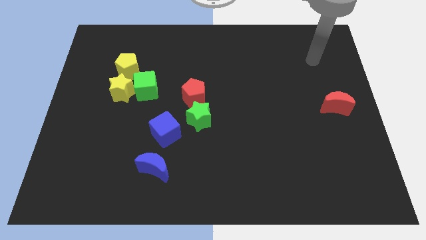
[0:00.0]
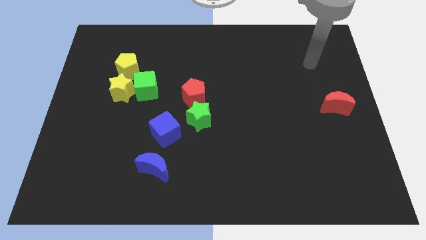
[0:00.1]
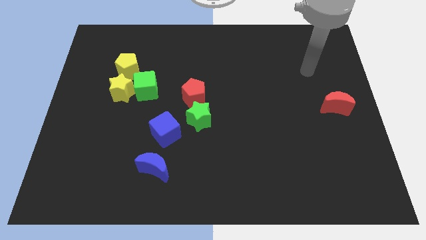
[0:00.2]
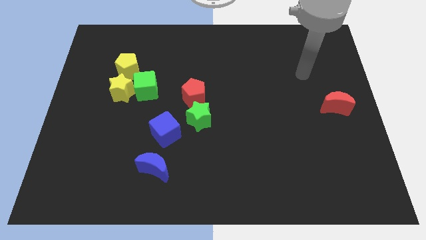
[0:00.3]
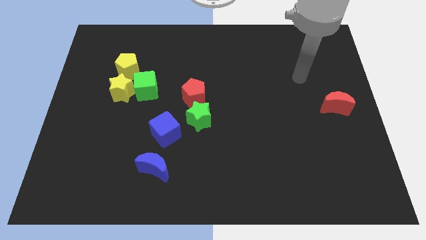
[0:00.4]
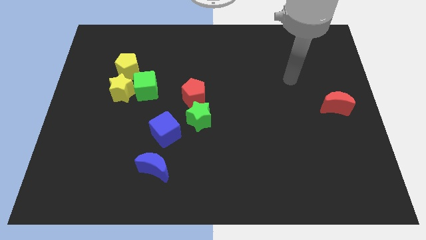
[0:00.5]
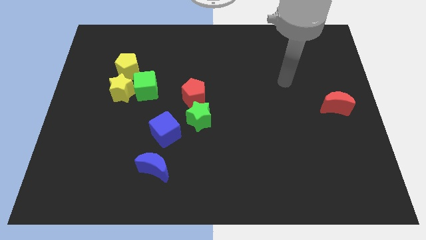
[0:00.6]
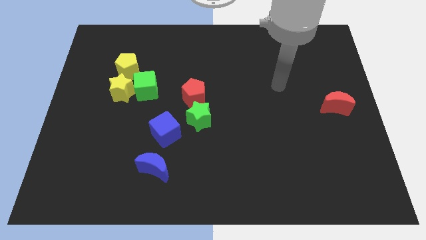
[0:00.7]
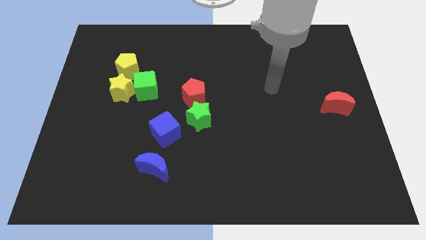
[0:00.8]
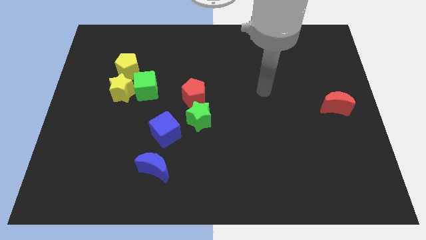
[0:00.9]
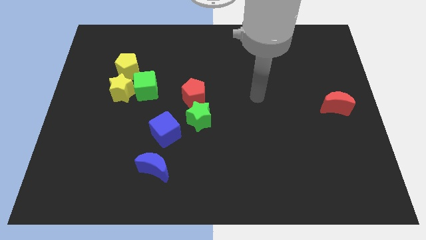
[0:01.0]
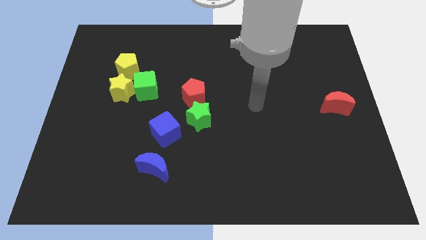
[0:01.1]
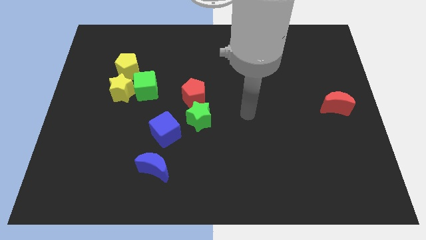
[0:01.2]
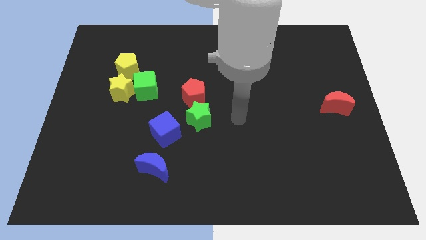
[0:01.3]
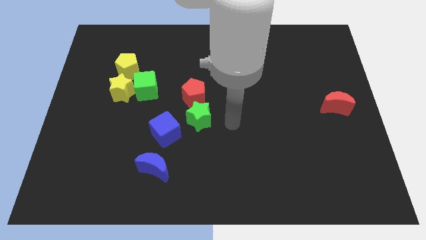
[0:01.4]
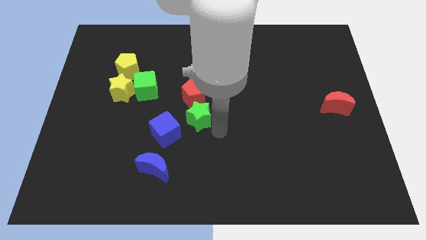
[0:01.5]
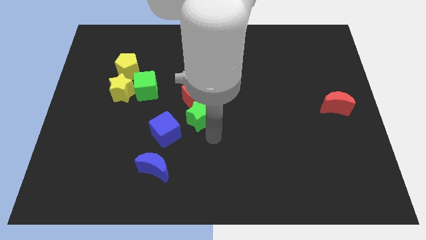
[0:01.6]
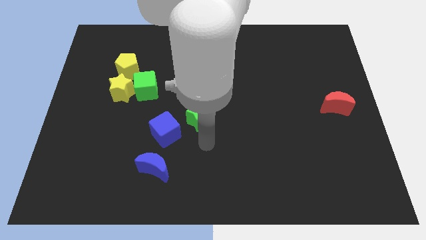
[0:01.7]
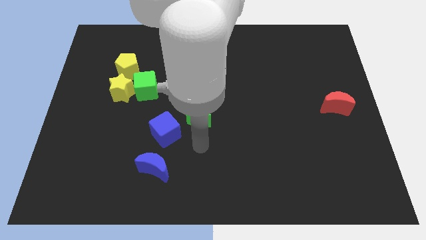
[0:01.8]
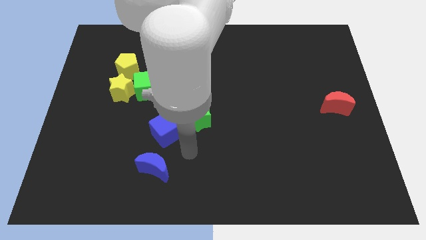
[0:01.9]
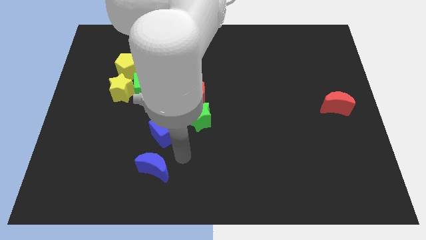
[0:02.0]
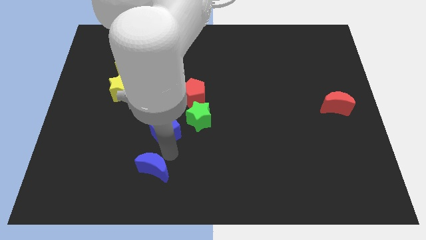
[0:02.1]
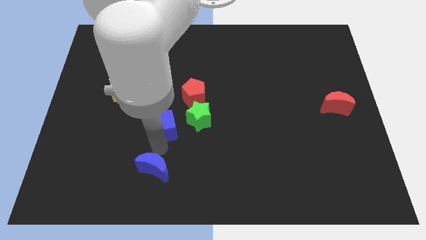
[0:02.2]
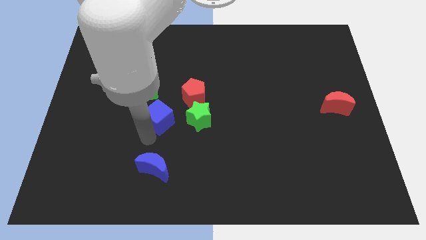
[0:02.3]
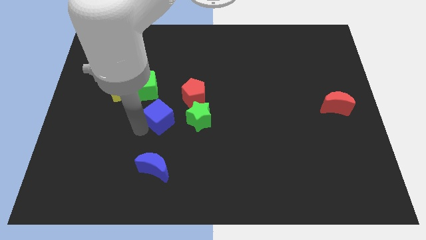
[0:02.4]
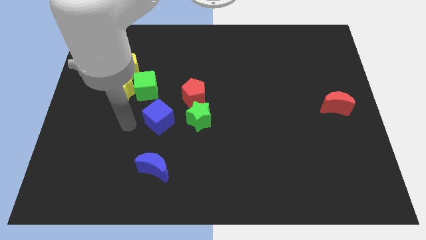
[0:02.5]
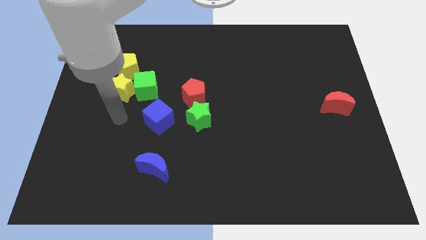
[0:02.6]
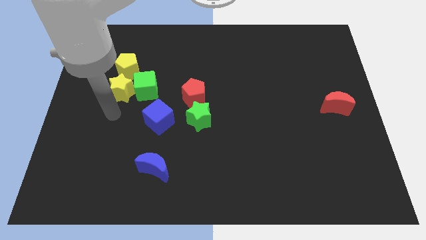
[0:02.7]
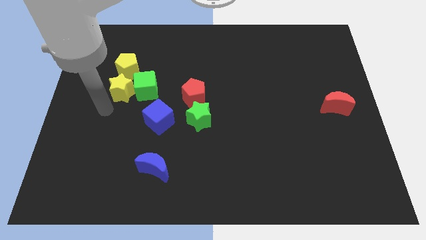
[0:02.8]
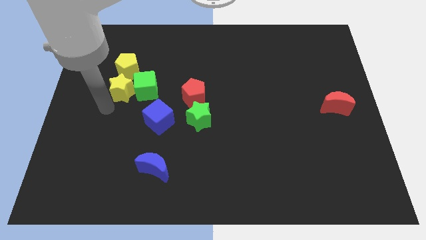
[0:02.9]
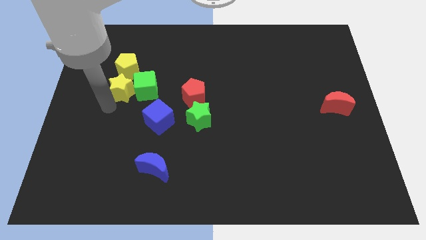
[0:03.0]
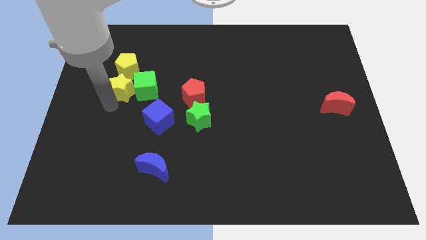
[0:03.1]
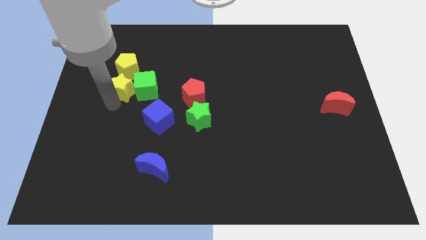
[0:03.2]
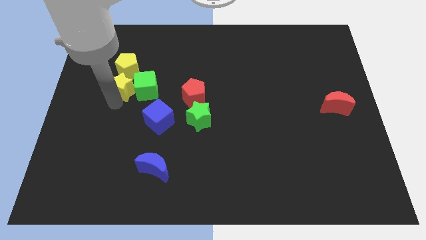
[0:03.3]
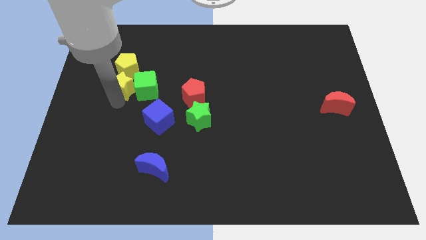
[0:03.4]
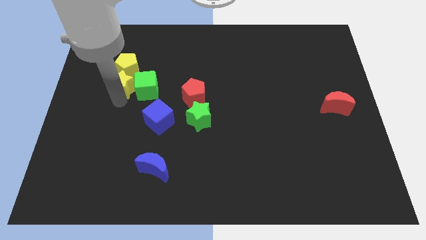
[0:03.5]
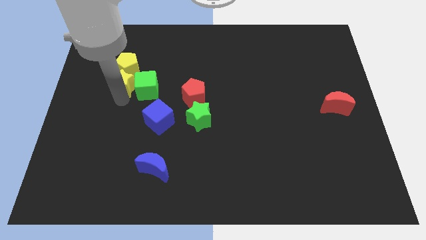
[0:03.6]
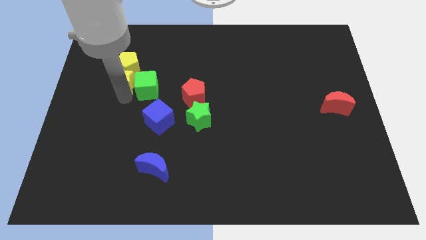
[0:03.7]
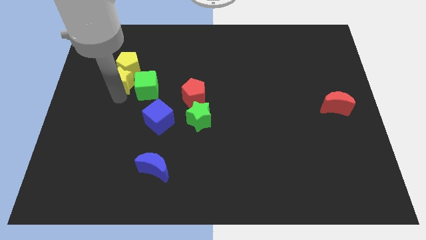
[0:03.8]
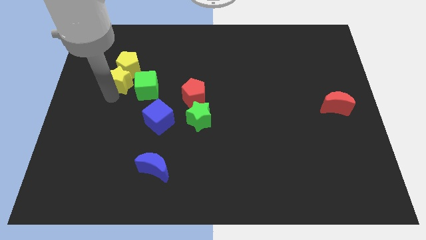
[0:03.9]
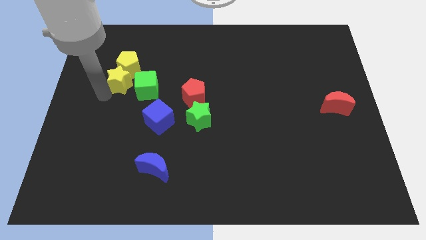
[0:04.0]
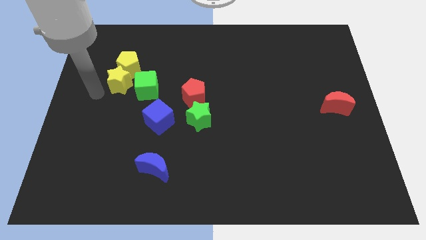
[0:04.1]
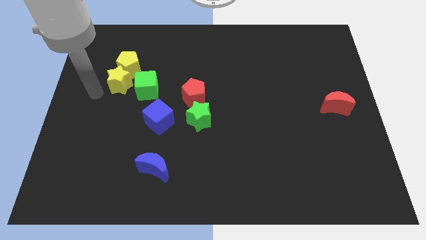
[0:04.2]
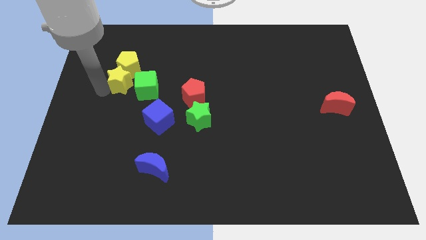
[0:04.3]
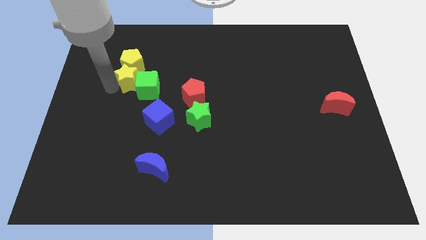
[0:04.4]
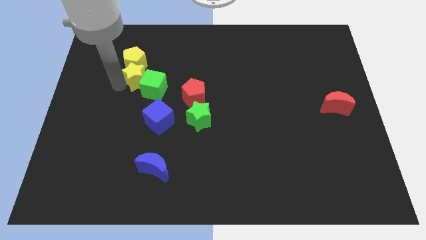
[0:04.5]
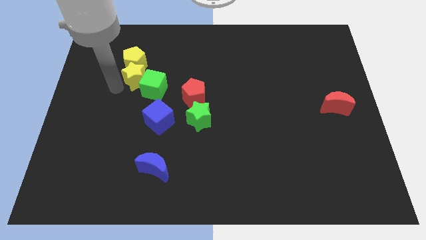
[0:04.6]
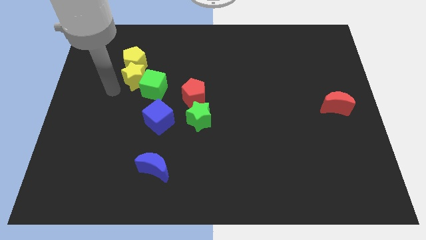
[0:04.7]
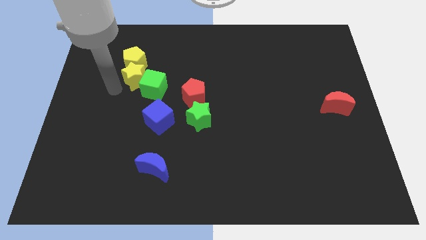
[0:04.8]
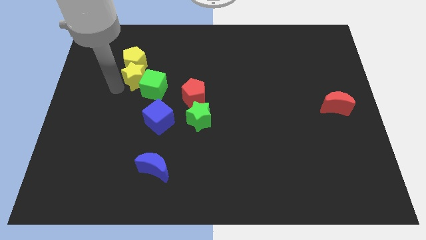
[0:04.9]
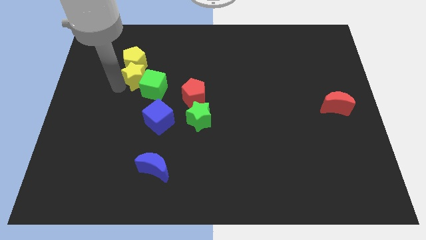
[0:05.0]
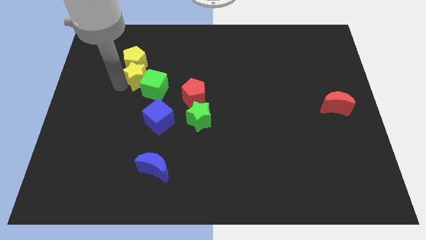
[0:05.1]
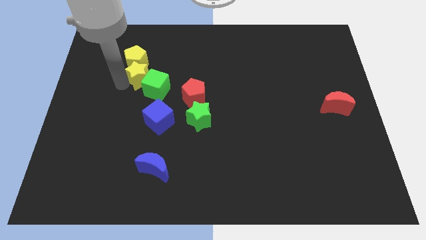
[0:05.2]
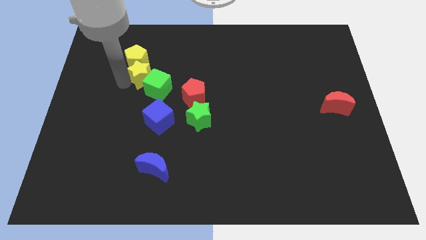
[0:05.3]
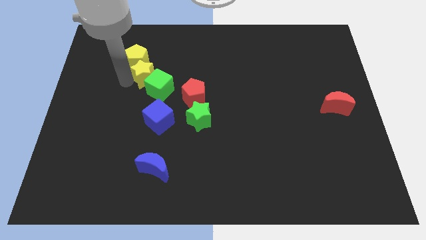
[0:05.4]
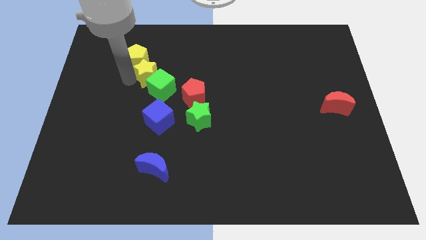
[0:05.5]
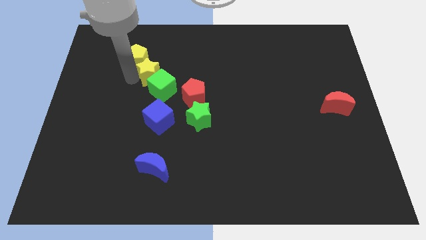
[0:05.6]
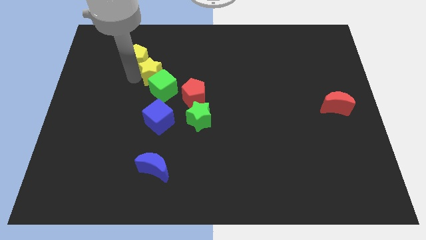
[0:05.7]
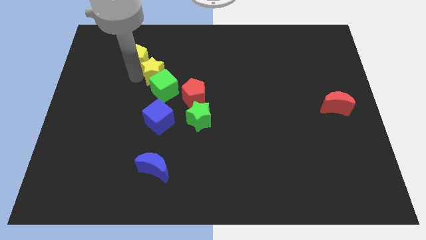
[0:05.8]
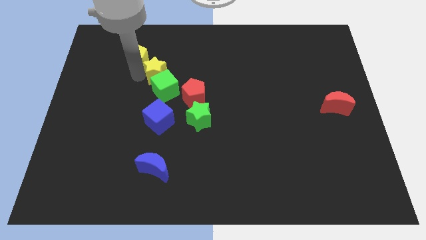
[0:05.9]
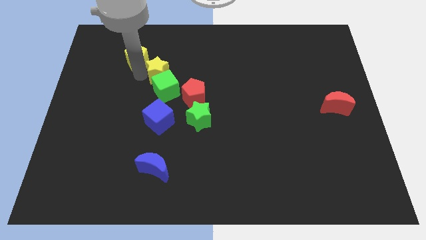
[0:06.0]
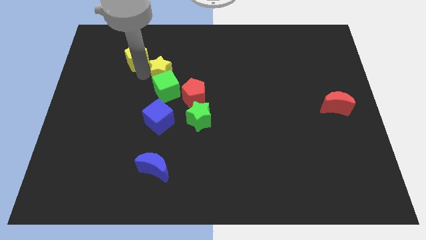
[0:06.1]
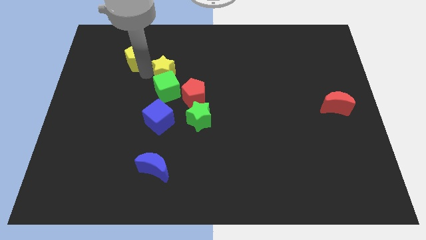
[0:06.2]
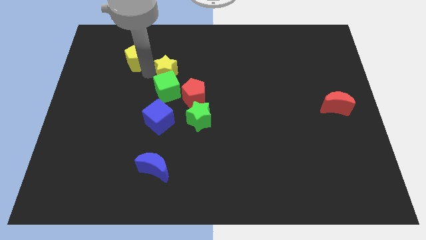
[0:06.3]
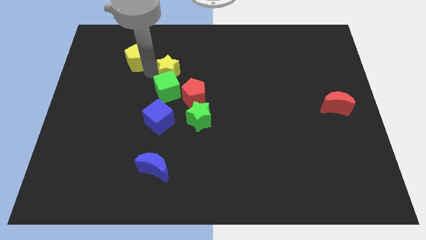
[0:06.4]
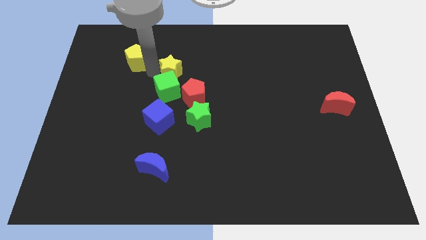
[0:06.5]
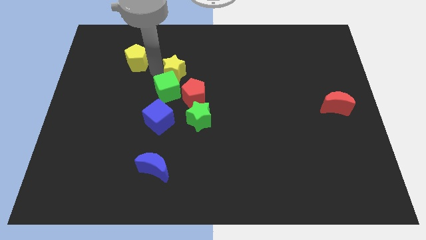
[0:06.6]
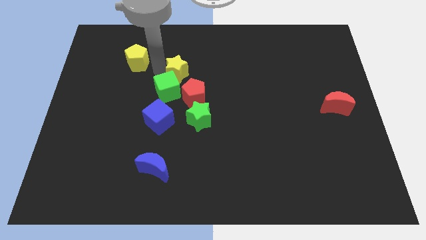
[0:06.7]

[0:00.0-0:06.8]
put the yellow star to the middle of the board
